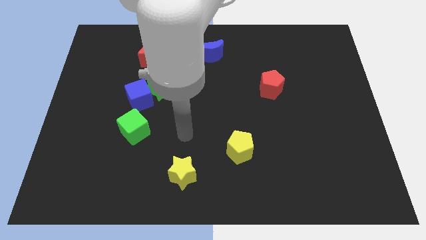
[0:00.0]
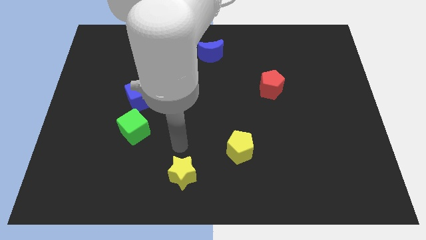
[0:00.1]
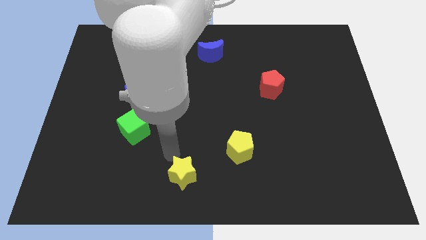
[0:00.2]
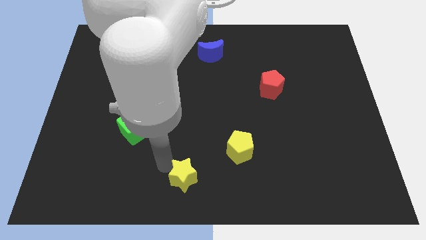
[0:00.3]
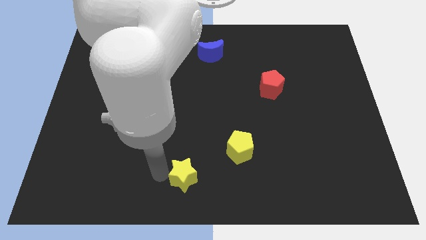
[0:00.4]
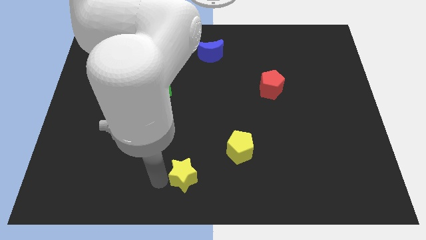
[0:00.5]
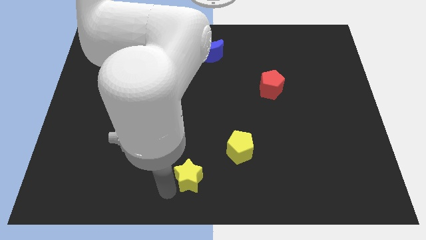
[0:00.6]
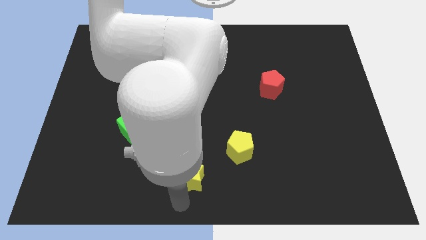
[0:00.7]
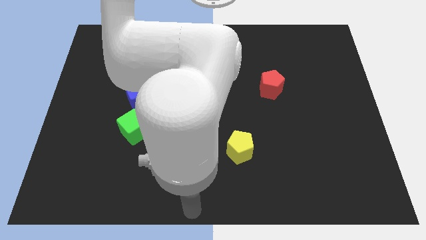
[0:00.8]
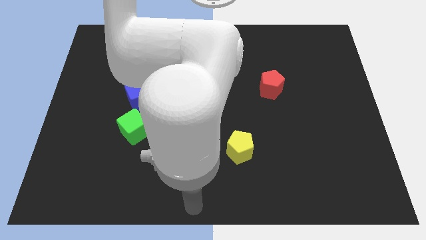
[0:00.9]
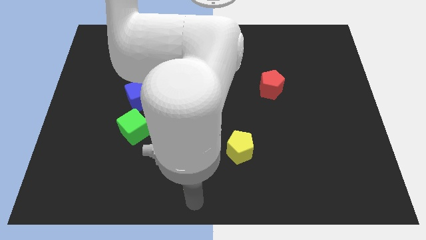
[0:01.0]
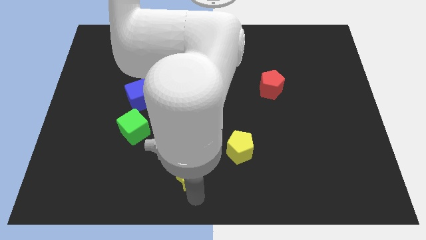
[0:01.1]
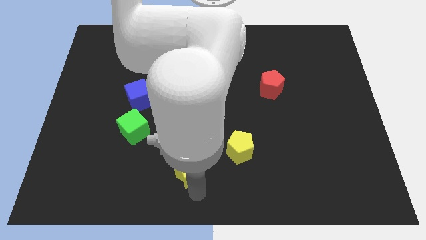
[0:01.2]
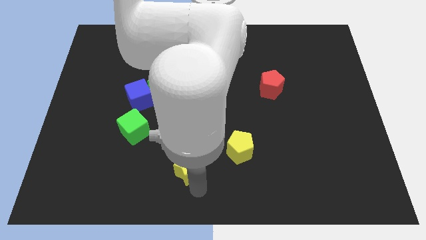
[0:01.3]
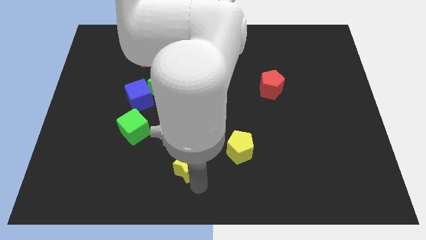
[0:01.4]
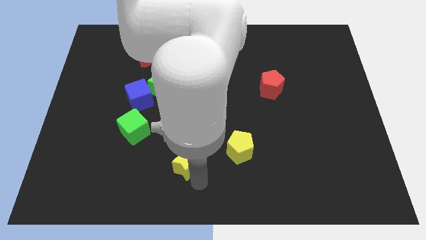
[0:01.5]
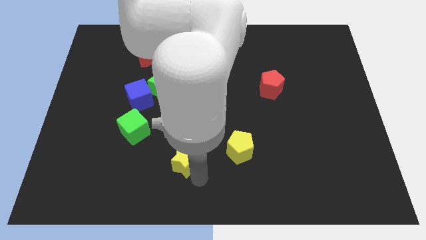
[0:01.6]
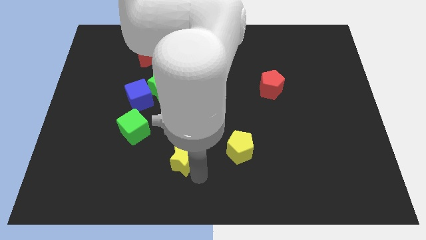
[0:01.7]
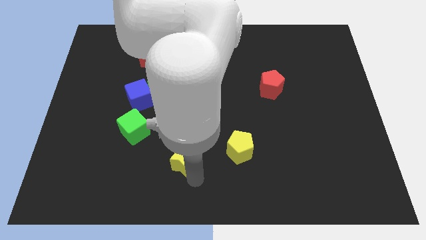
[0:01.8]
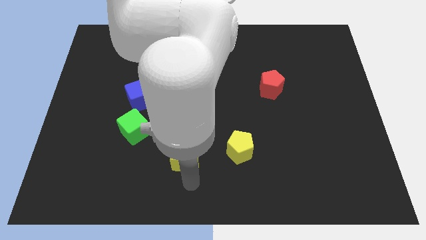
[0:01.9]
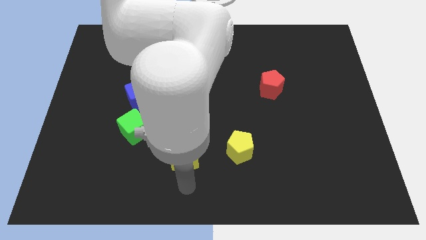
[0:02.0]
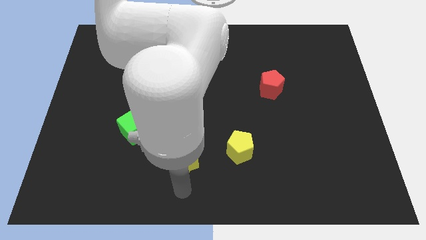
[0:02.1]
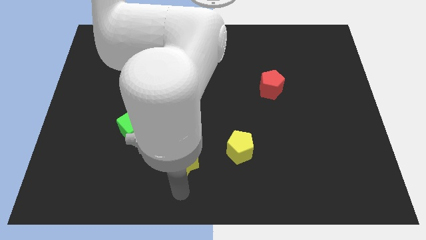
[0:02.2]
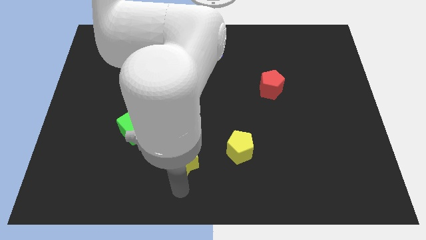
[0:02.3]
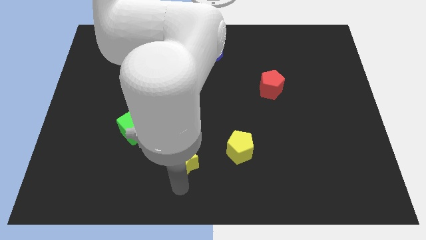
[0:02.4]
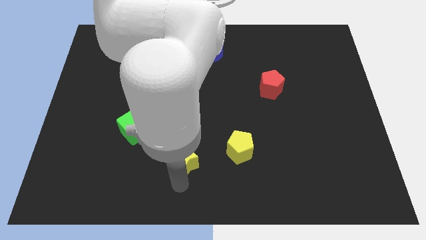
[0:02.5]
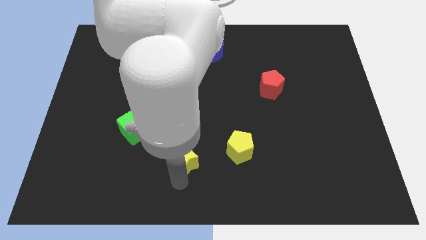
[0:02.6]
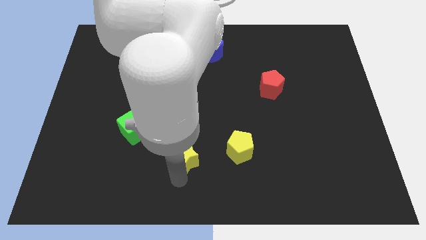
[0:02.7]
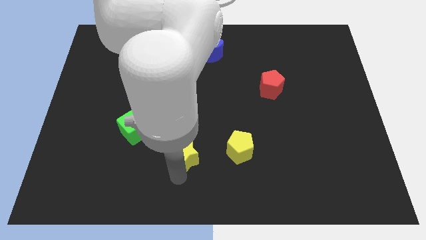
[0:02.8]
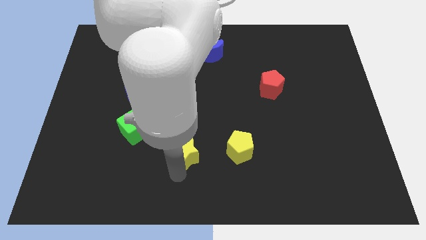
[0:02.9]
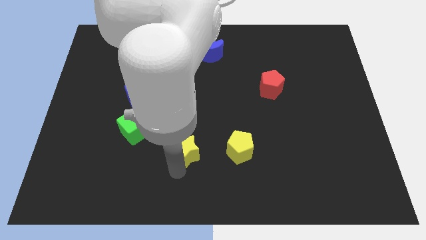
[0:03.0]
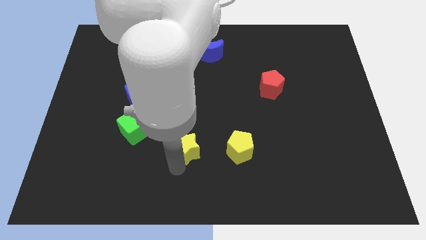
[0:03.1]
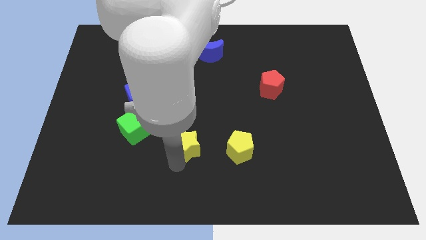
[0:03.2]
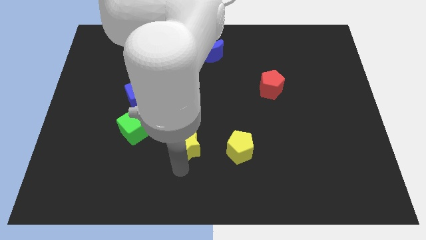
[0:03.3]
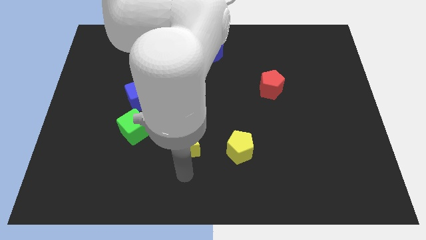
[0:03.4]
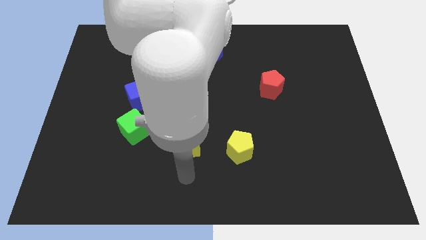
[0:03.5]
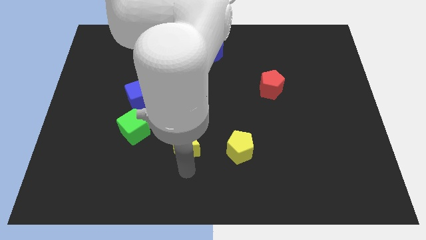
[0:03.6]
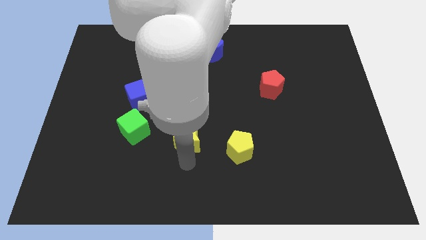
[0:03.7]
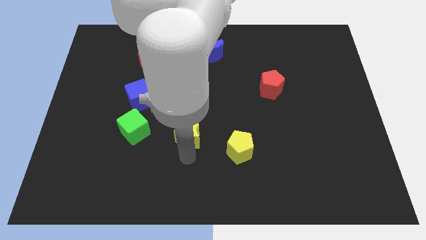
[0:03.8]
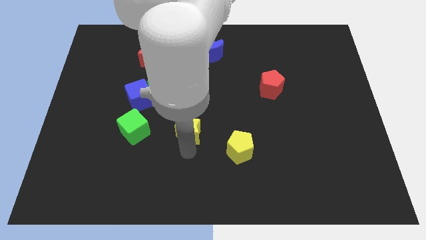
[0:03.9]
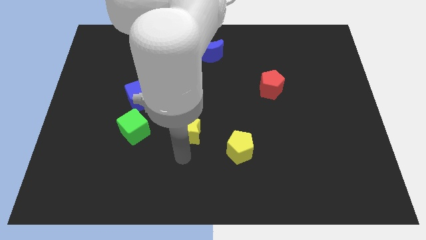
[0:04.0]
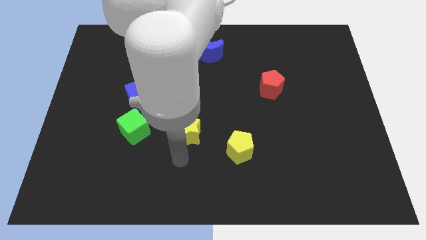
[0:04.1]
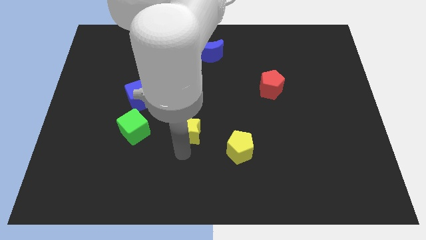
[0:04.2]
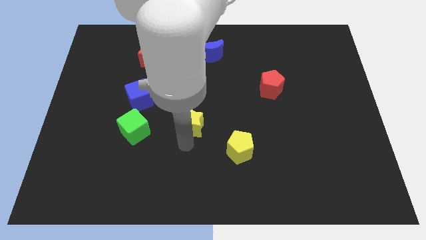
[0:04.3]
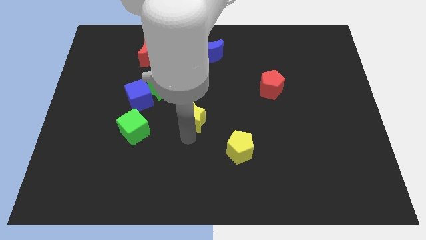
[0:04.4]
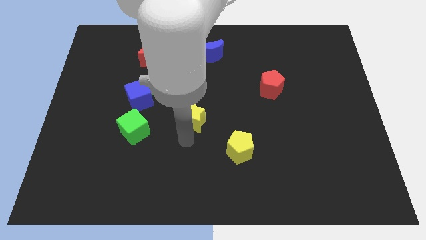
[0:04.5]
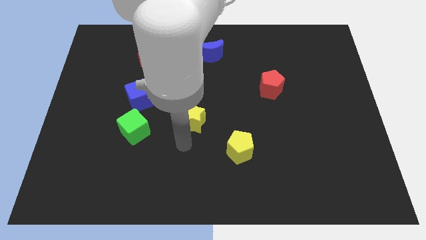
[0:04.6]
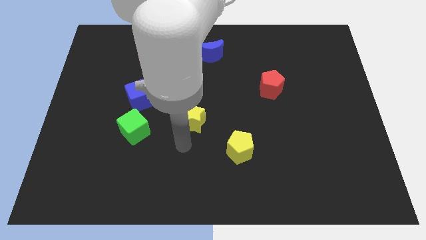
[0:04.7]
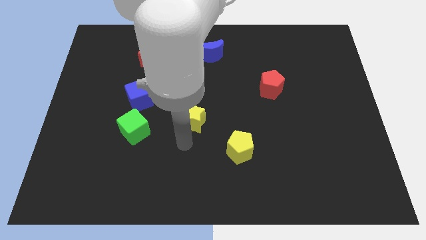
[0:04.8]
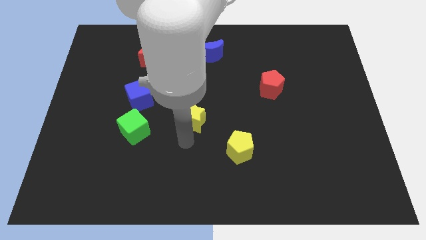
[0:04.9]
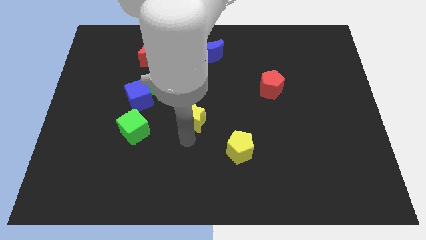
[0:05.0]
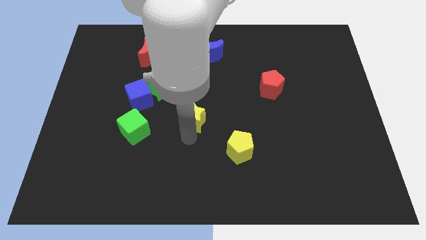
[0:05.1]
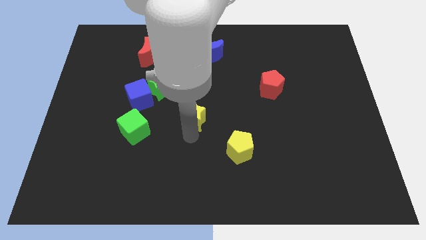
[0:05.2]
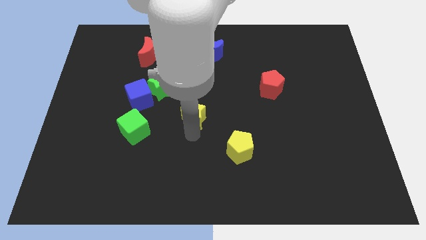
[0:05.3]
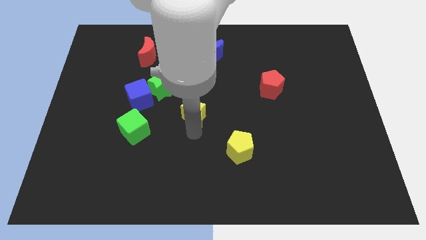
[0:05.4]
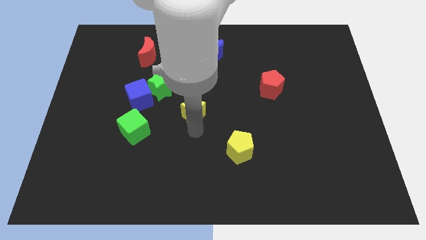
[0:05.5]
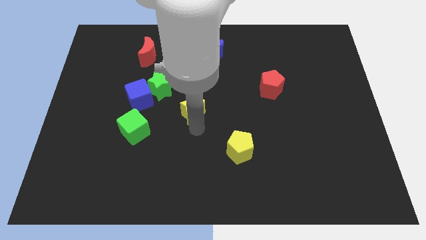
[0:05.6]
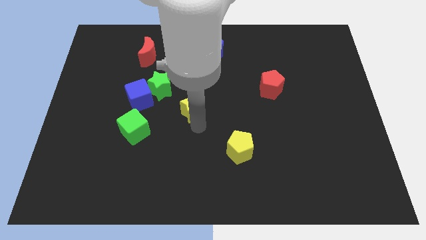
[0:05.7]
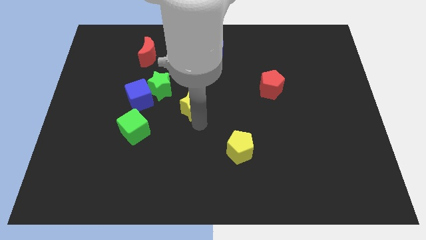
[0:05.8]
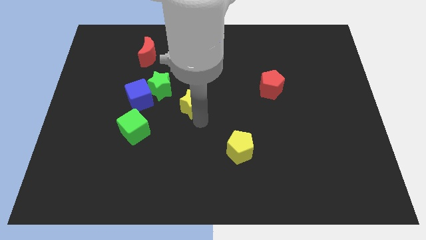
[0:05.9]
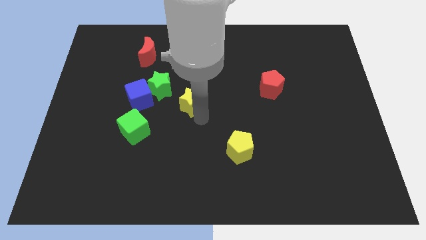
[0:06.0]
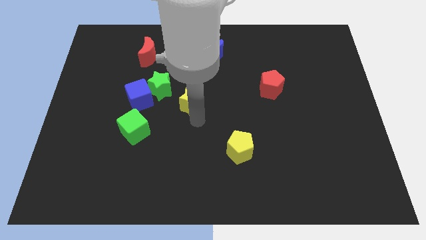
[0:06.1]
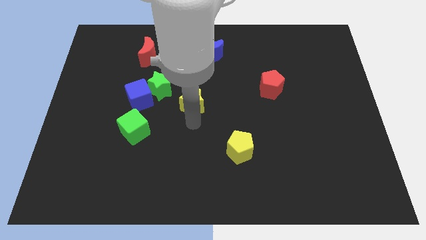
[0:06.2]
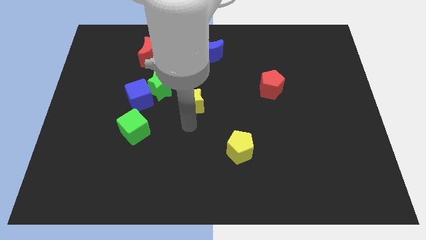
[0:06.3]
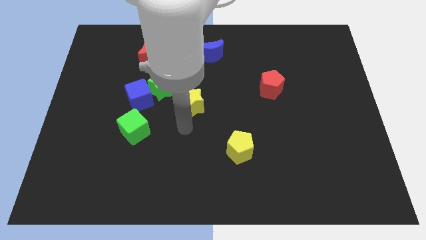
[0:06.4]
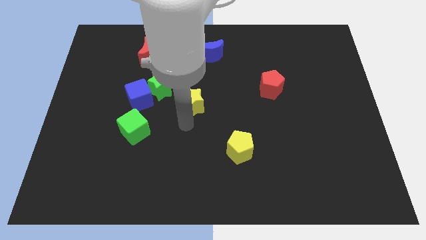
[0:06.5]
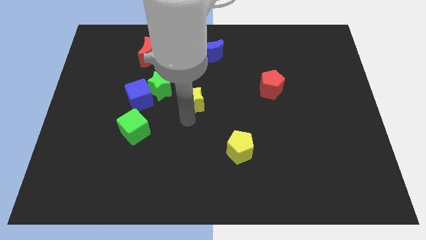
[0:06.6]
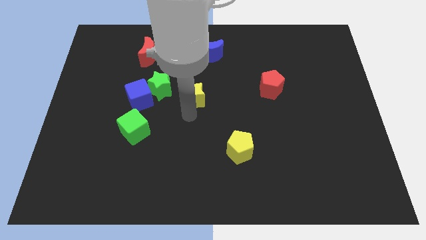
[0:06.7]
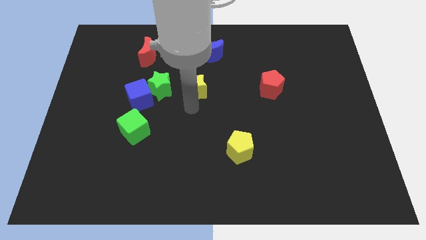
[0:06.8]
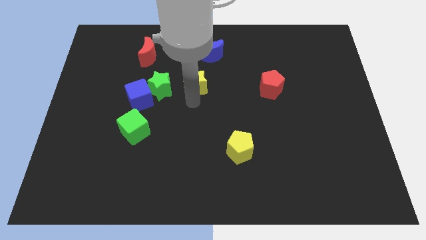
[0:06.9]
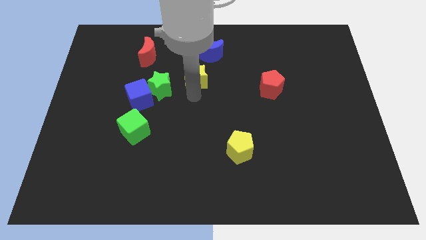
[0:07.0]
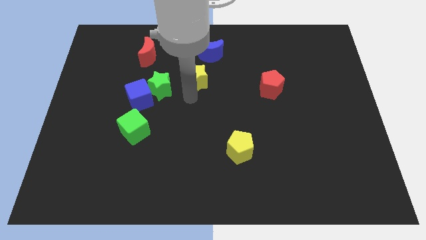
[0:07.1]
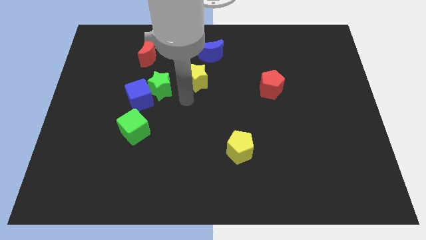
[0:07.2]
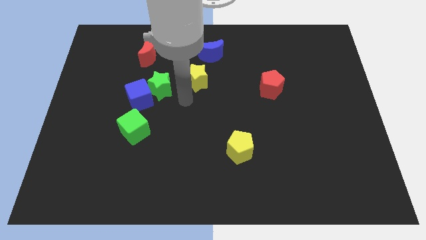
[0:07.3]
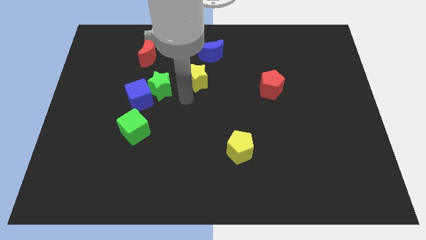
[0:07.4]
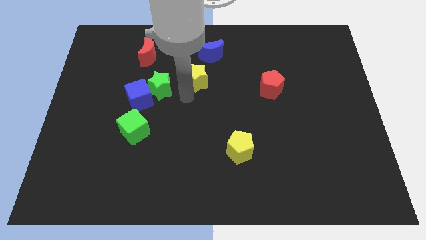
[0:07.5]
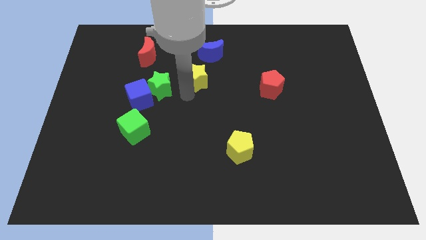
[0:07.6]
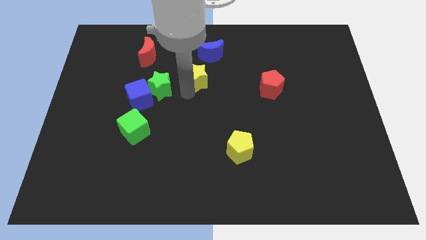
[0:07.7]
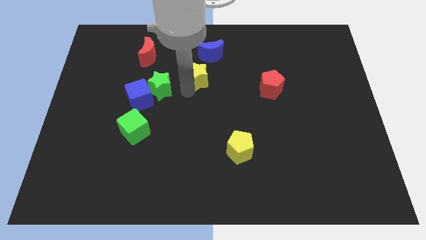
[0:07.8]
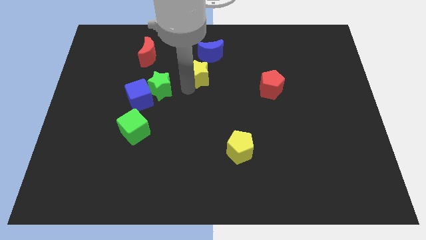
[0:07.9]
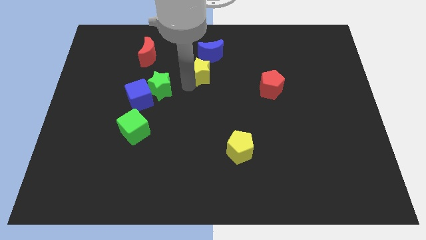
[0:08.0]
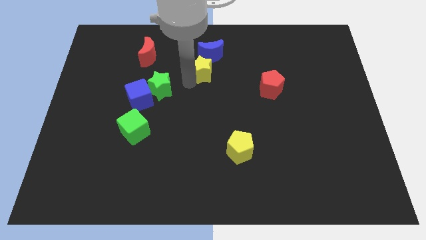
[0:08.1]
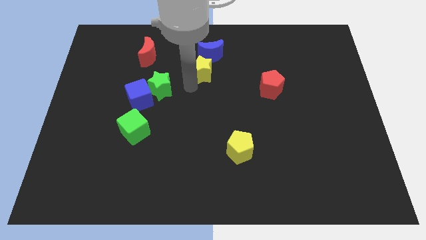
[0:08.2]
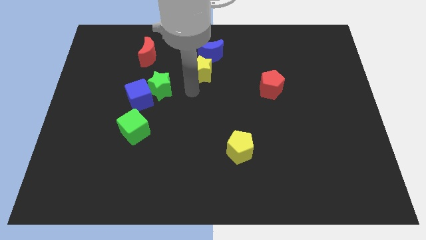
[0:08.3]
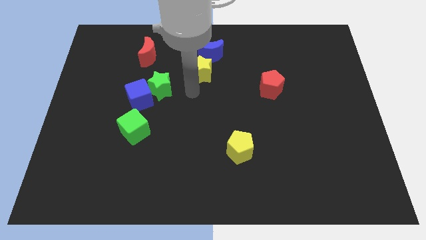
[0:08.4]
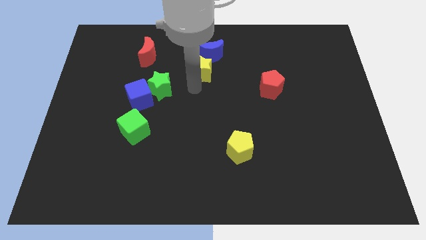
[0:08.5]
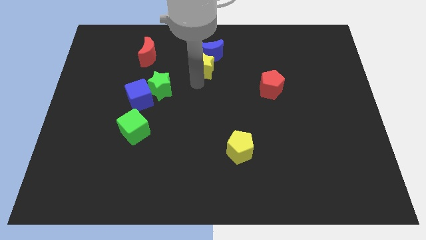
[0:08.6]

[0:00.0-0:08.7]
put the yellow star towards the blue moon
